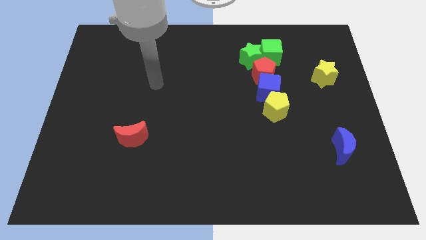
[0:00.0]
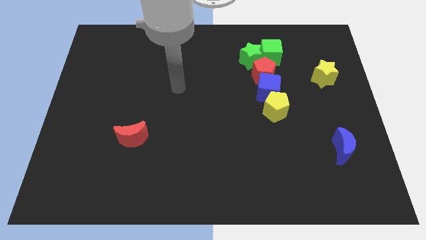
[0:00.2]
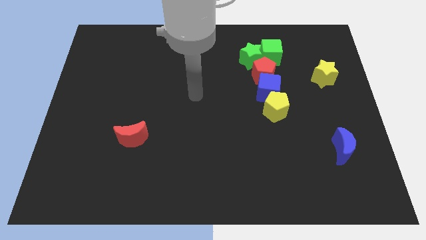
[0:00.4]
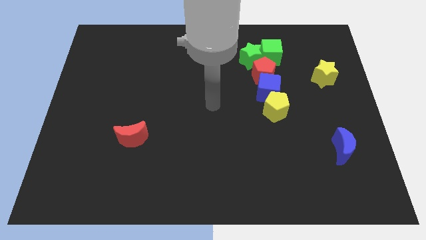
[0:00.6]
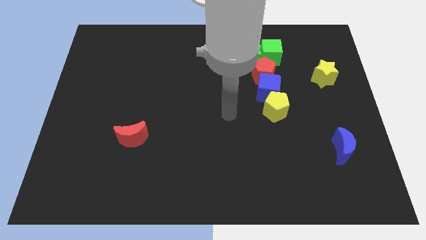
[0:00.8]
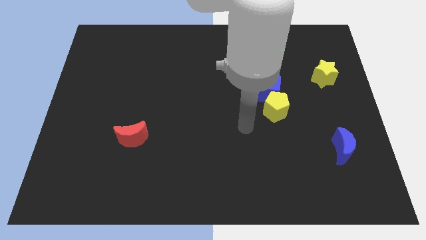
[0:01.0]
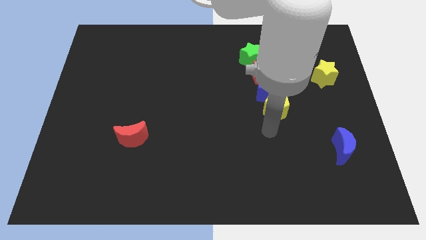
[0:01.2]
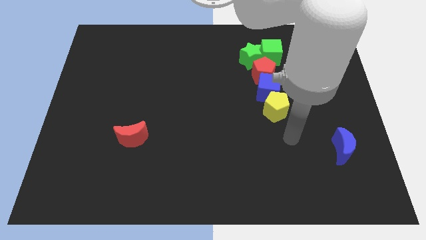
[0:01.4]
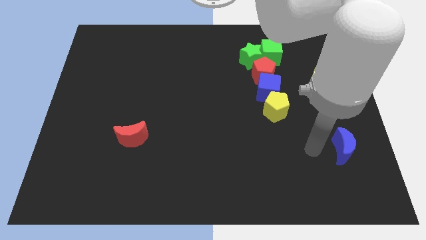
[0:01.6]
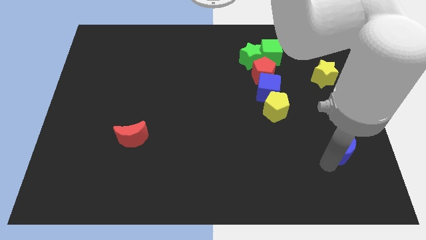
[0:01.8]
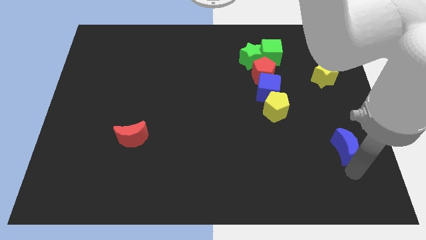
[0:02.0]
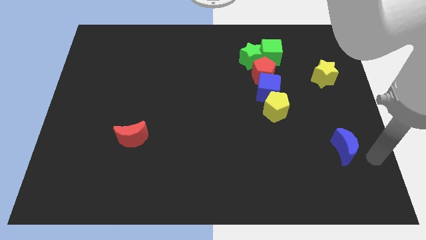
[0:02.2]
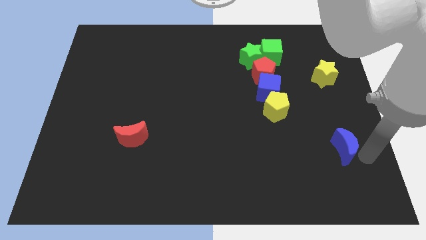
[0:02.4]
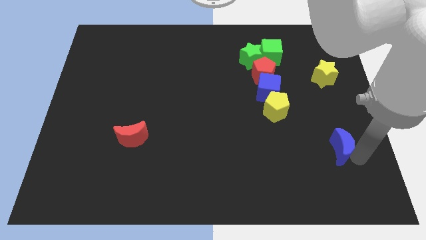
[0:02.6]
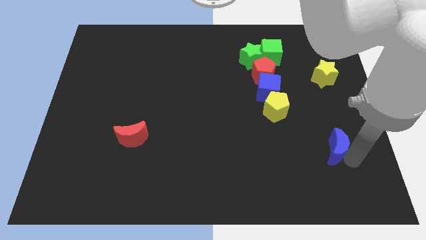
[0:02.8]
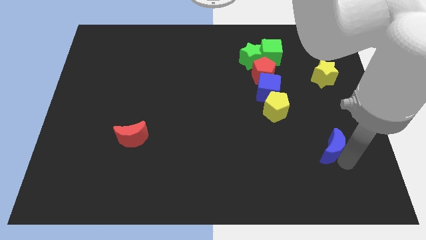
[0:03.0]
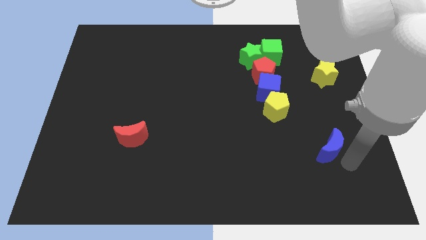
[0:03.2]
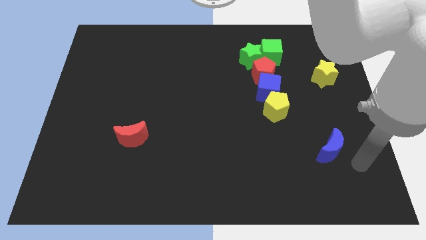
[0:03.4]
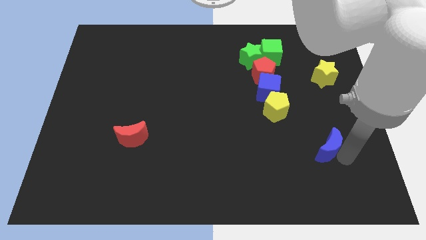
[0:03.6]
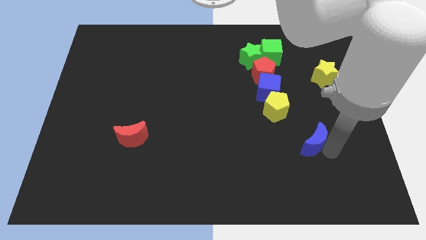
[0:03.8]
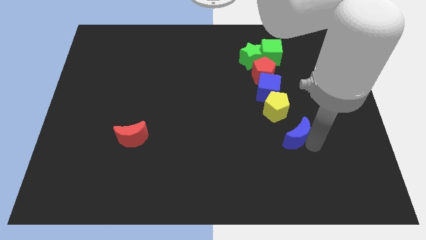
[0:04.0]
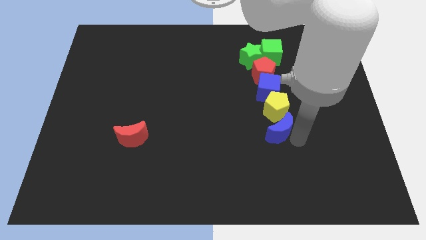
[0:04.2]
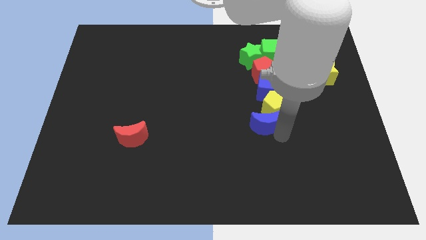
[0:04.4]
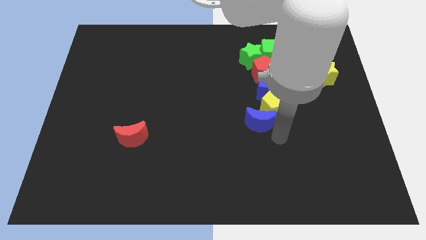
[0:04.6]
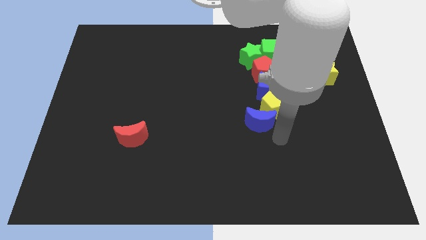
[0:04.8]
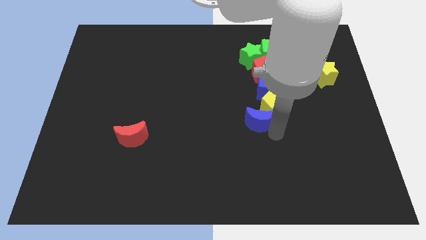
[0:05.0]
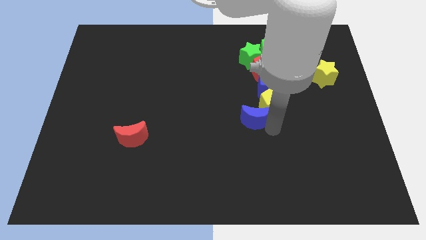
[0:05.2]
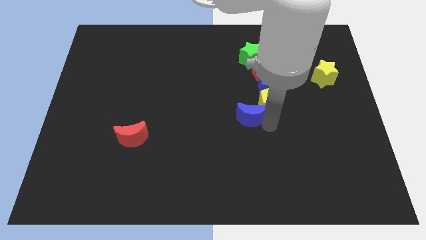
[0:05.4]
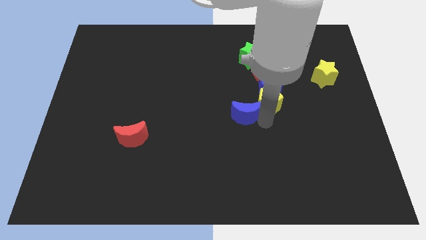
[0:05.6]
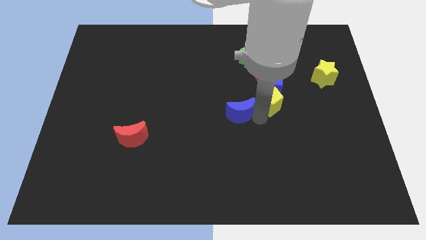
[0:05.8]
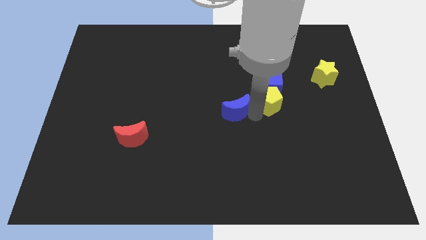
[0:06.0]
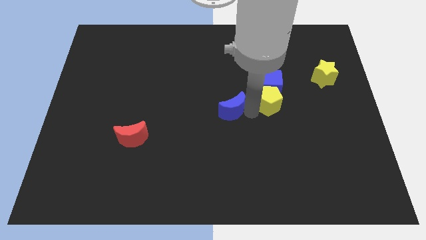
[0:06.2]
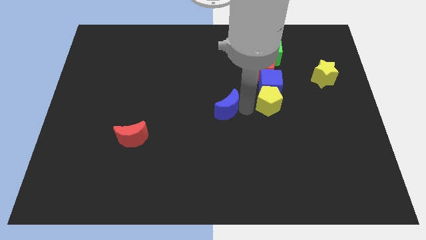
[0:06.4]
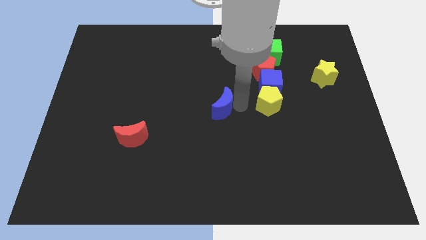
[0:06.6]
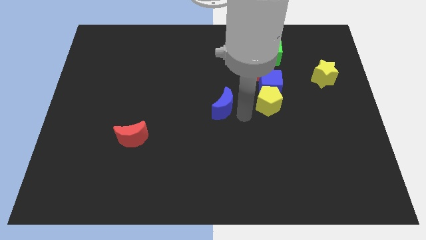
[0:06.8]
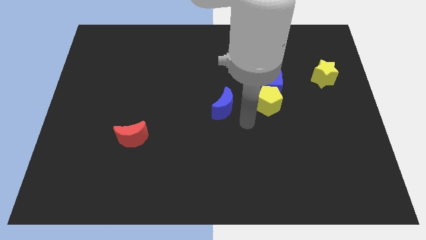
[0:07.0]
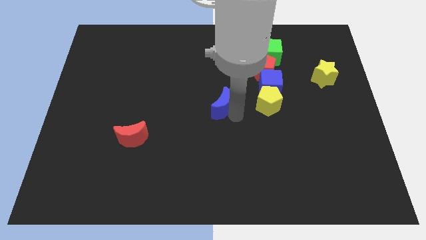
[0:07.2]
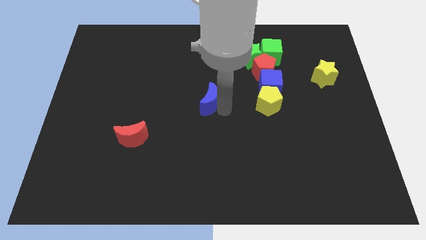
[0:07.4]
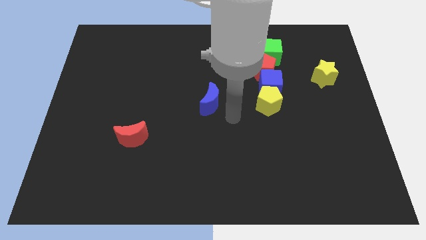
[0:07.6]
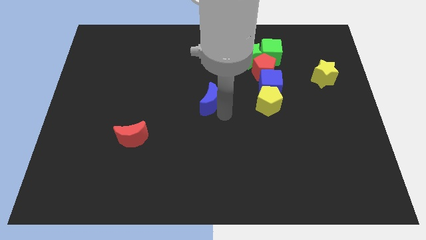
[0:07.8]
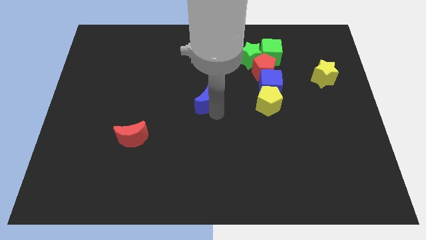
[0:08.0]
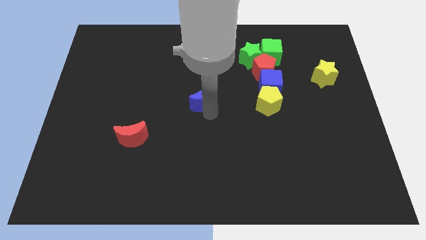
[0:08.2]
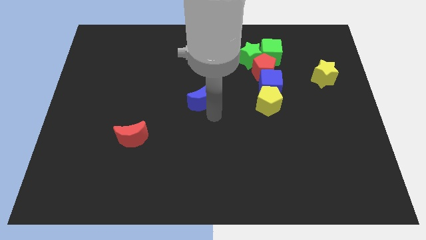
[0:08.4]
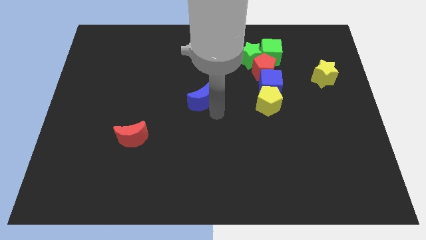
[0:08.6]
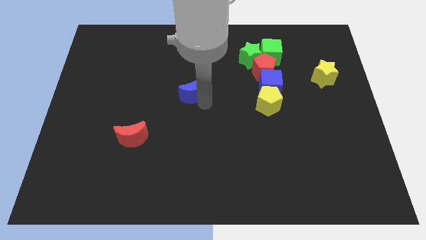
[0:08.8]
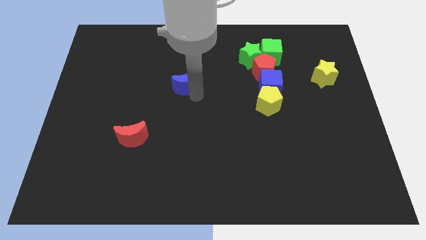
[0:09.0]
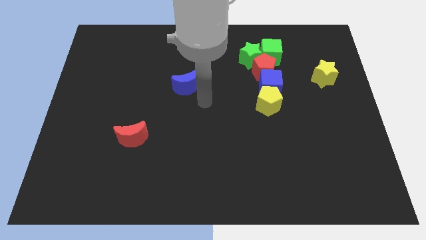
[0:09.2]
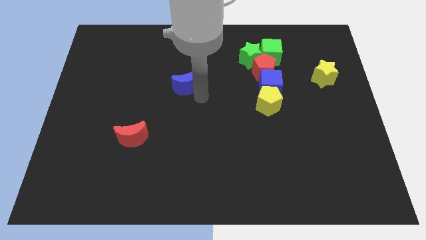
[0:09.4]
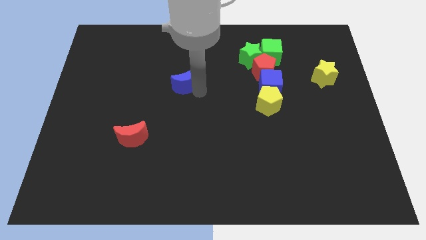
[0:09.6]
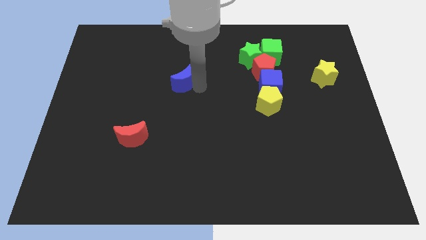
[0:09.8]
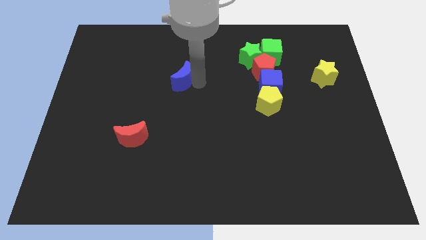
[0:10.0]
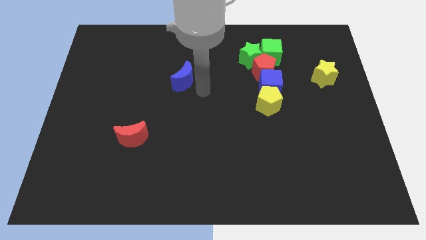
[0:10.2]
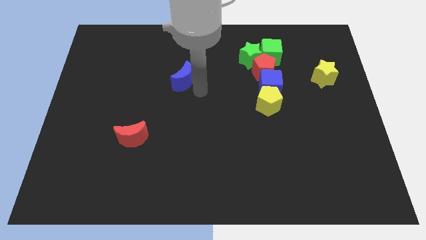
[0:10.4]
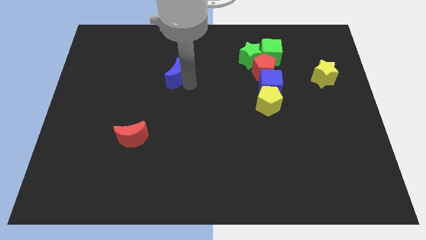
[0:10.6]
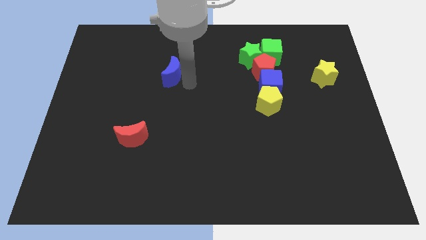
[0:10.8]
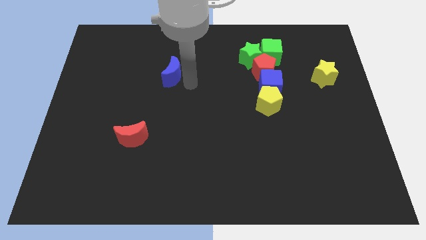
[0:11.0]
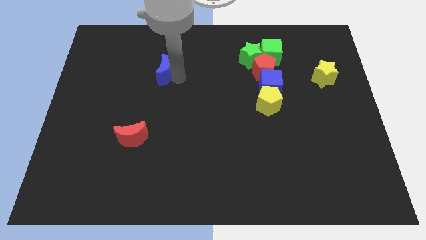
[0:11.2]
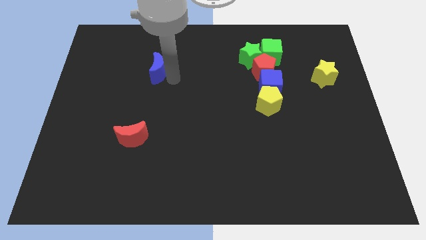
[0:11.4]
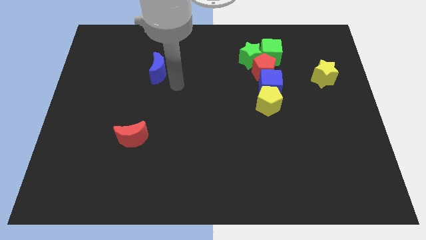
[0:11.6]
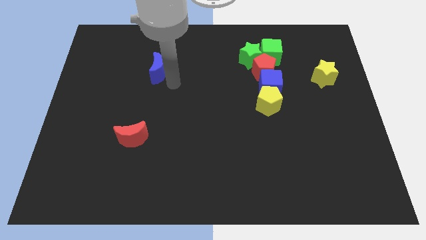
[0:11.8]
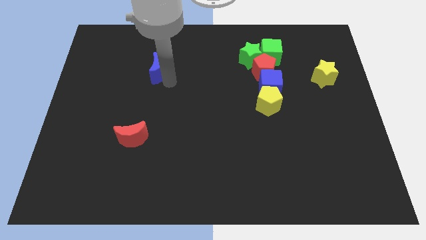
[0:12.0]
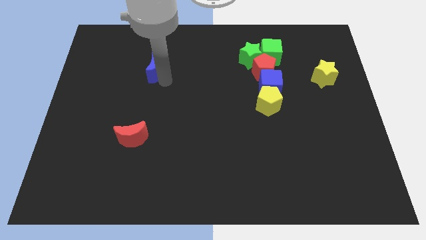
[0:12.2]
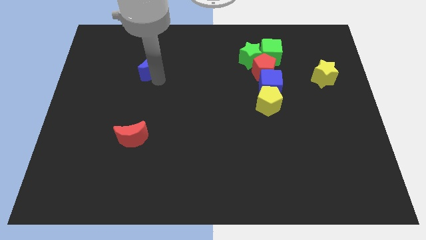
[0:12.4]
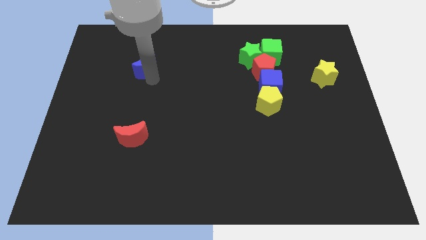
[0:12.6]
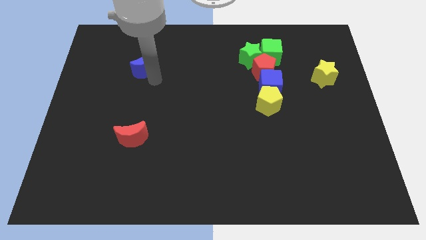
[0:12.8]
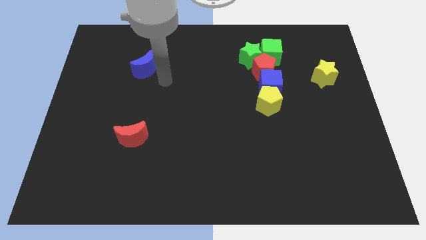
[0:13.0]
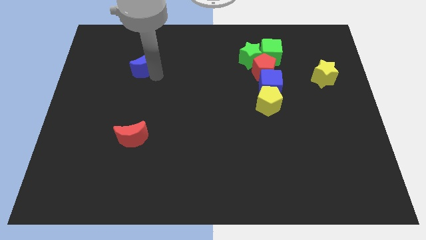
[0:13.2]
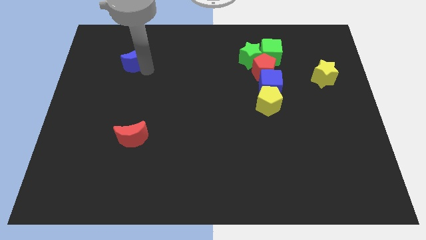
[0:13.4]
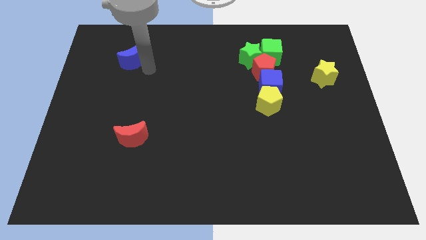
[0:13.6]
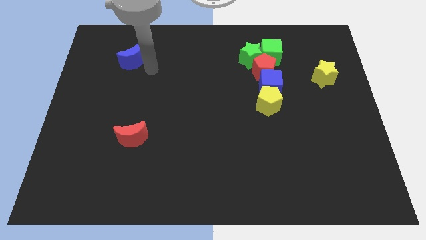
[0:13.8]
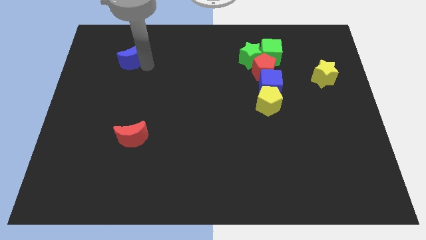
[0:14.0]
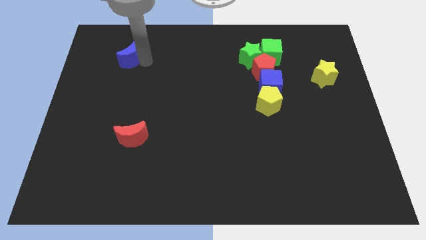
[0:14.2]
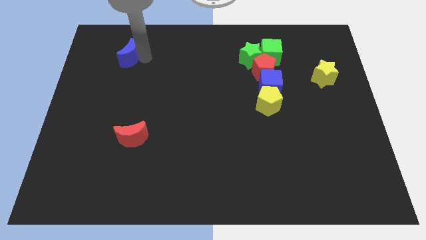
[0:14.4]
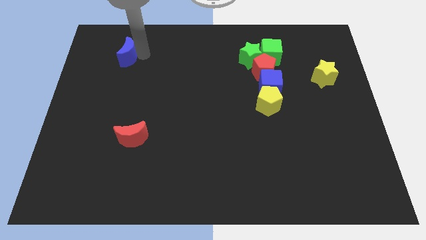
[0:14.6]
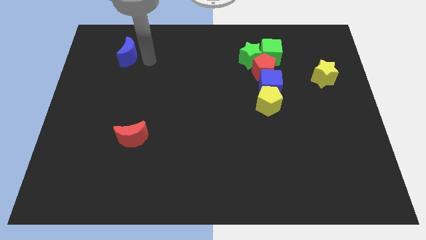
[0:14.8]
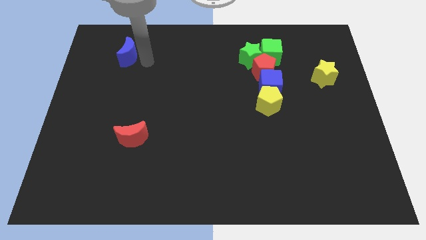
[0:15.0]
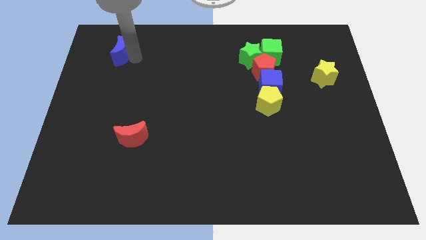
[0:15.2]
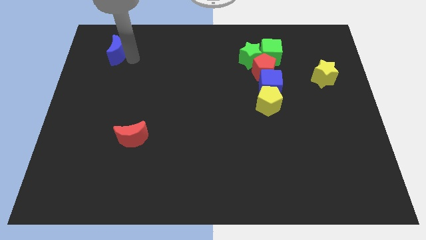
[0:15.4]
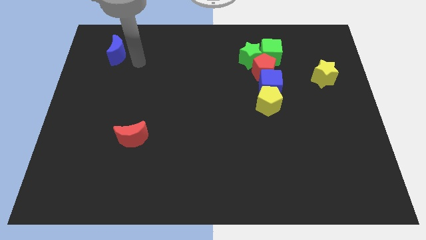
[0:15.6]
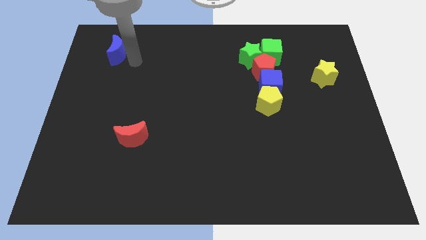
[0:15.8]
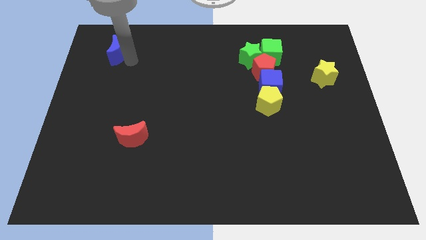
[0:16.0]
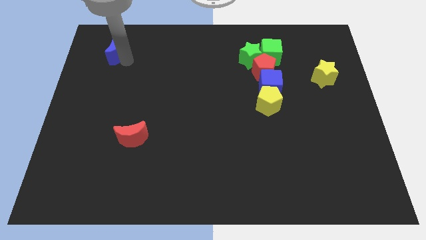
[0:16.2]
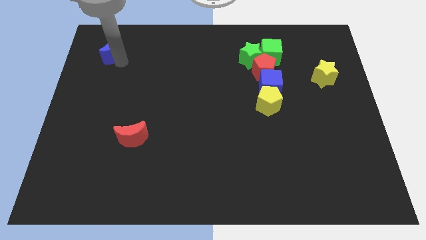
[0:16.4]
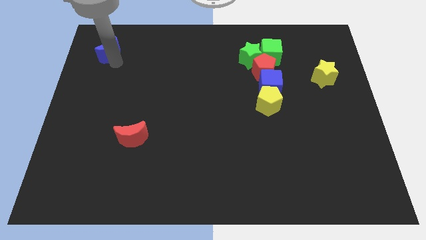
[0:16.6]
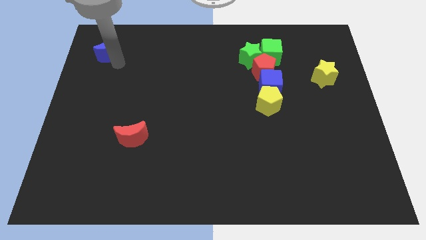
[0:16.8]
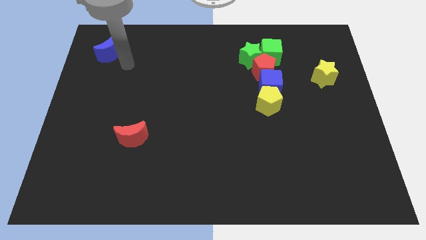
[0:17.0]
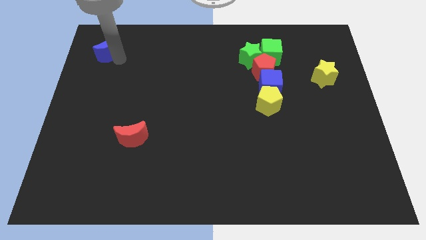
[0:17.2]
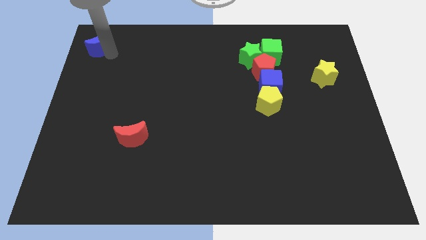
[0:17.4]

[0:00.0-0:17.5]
slide the blue moon to the top left
